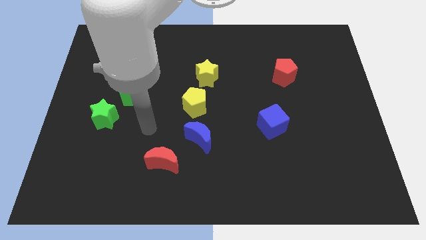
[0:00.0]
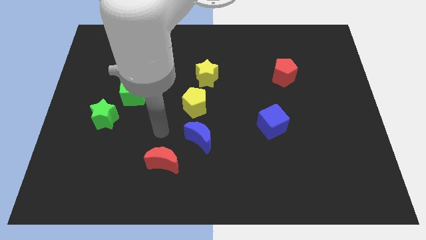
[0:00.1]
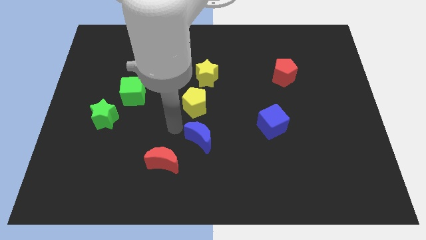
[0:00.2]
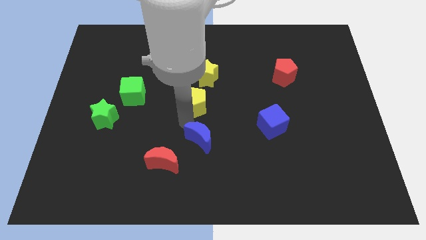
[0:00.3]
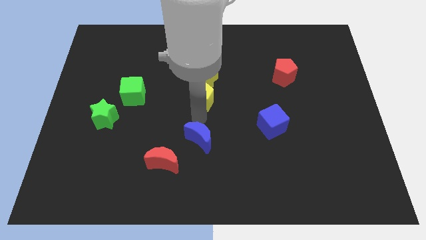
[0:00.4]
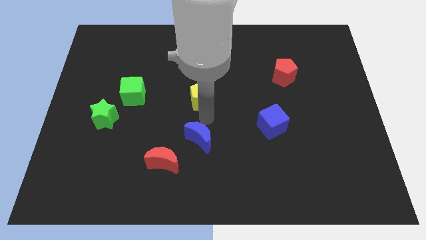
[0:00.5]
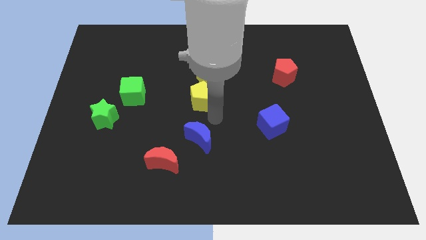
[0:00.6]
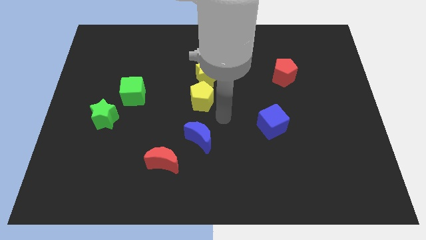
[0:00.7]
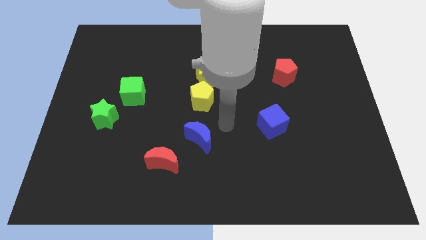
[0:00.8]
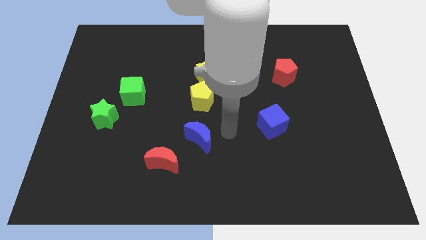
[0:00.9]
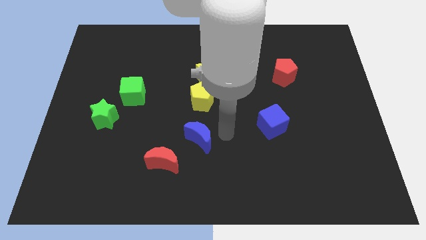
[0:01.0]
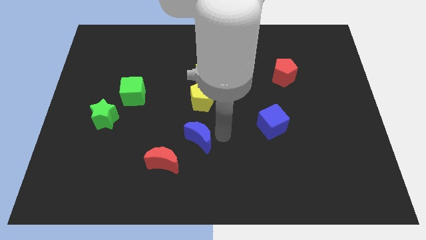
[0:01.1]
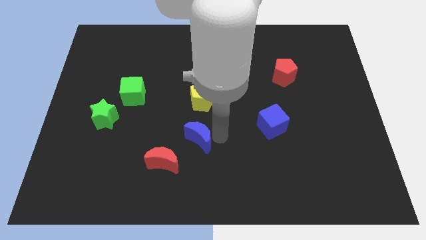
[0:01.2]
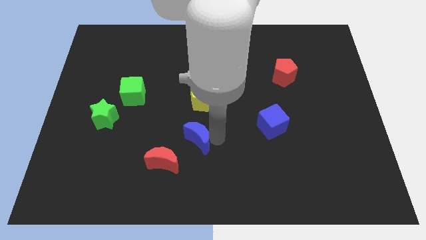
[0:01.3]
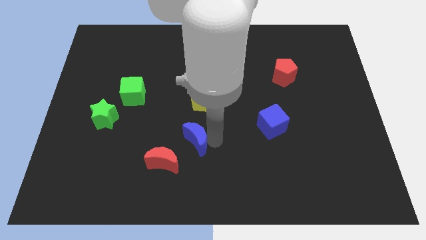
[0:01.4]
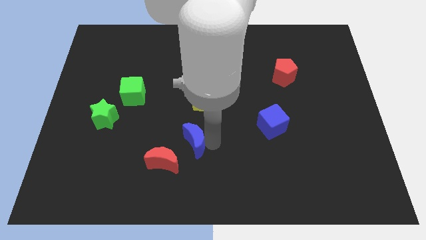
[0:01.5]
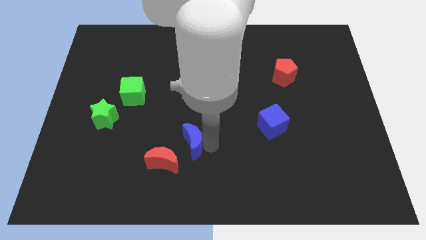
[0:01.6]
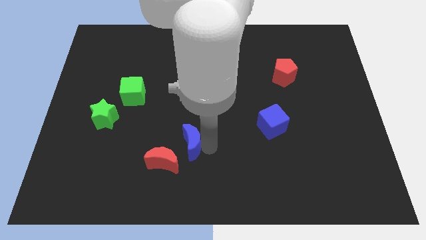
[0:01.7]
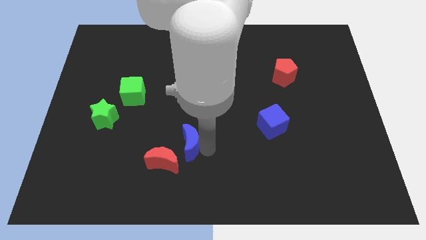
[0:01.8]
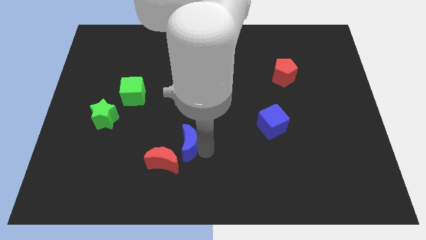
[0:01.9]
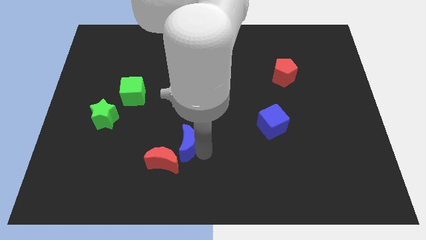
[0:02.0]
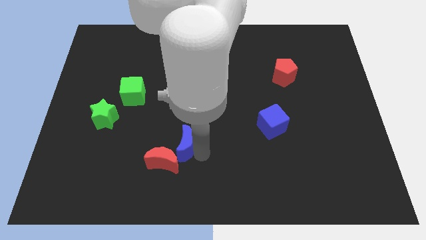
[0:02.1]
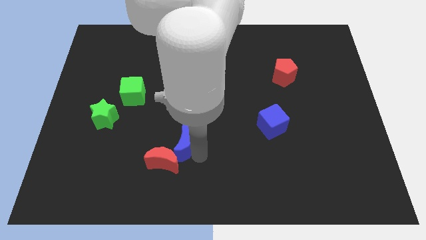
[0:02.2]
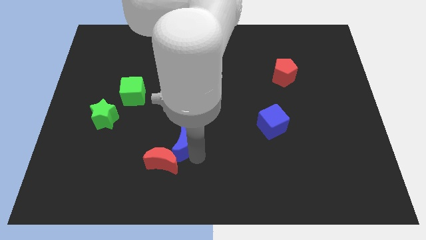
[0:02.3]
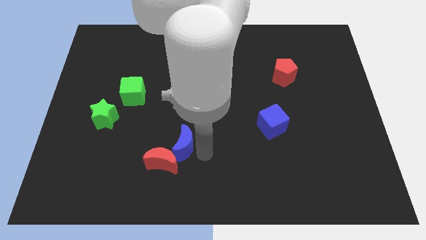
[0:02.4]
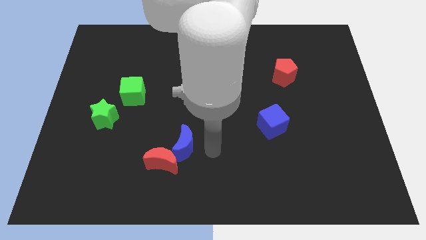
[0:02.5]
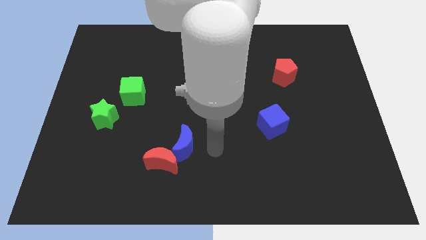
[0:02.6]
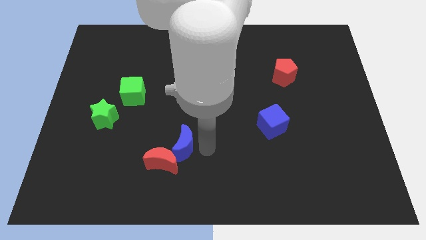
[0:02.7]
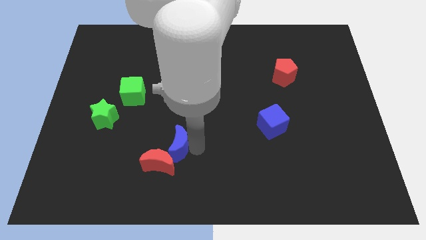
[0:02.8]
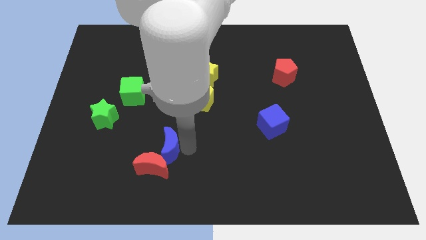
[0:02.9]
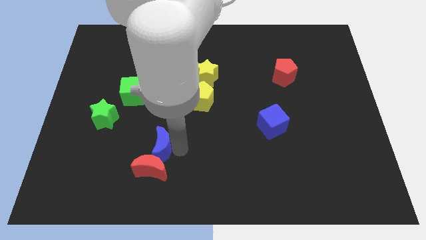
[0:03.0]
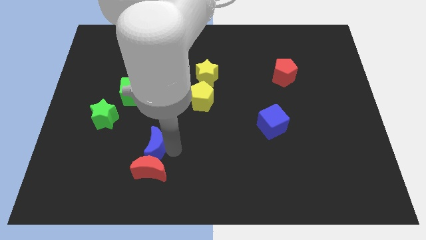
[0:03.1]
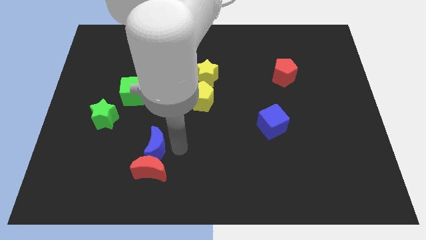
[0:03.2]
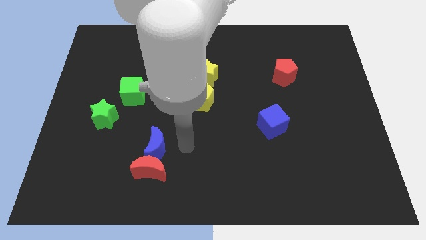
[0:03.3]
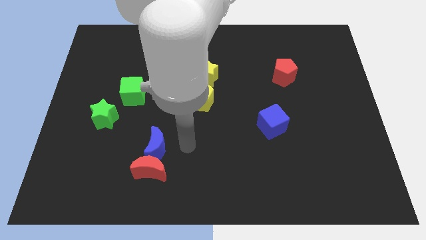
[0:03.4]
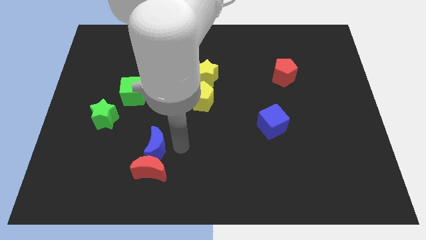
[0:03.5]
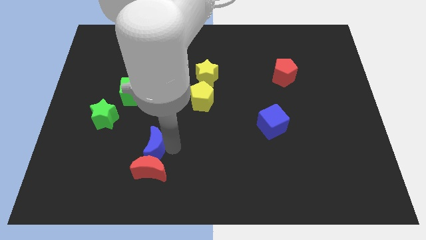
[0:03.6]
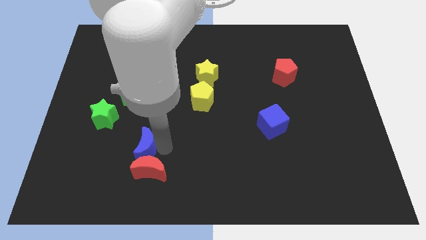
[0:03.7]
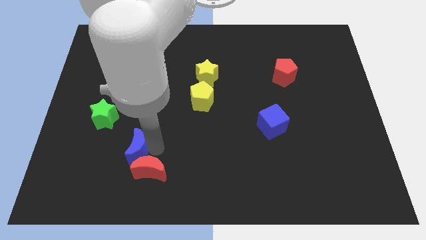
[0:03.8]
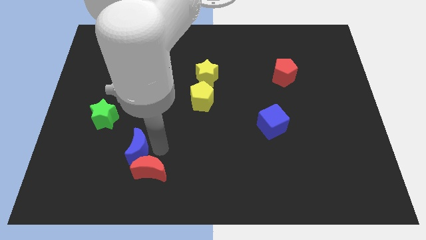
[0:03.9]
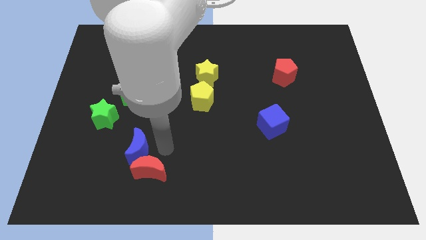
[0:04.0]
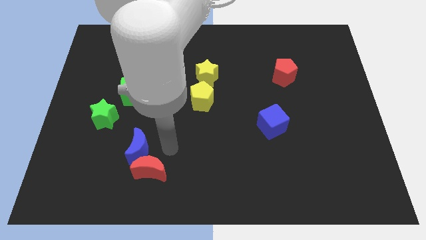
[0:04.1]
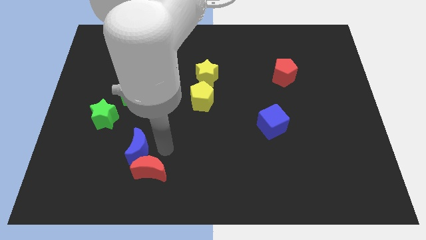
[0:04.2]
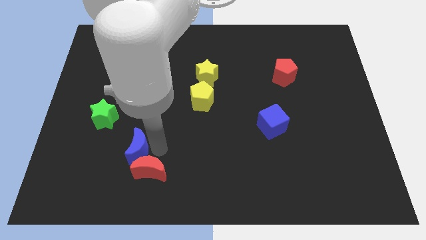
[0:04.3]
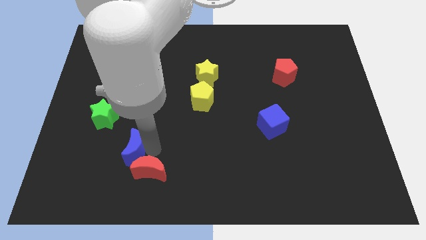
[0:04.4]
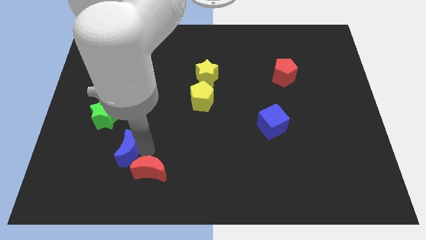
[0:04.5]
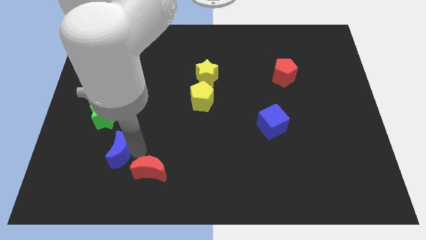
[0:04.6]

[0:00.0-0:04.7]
put the blue moon to the bottom of the green star

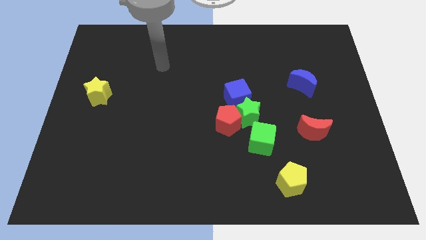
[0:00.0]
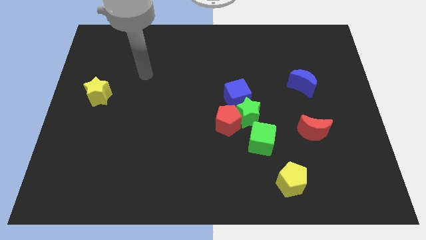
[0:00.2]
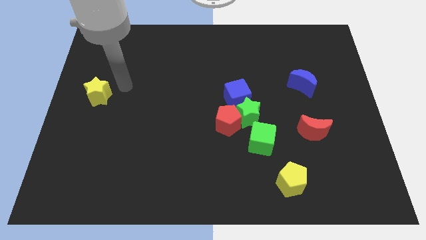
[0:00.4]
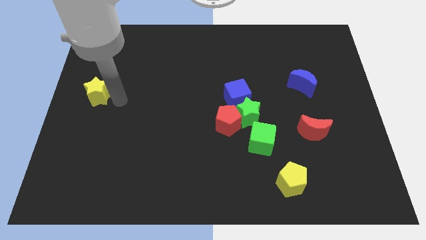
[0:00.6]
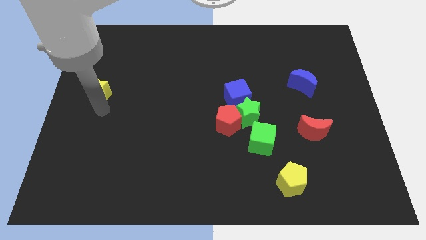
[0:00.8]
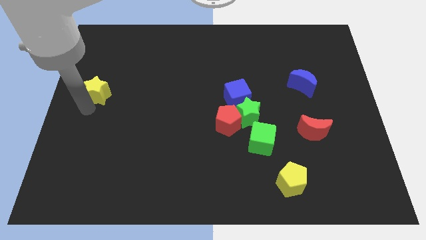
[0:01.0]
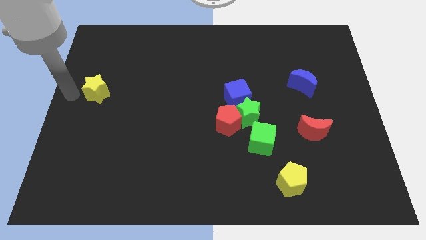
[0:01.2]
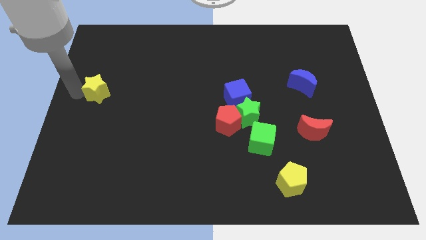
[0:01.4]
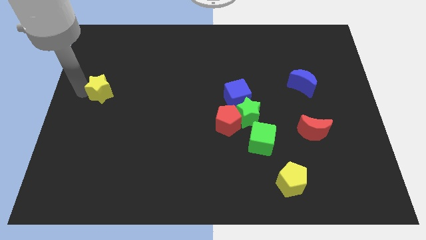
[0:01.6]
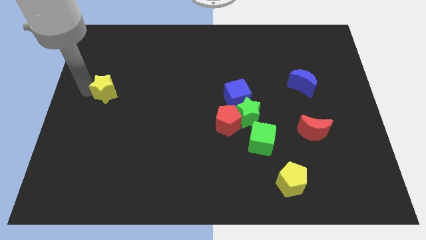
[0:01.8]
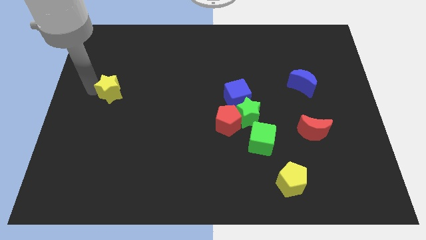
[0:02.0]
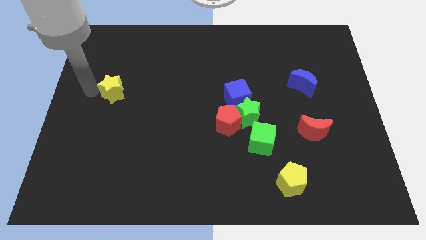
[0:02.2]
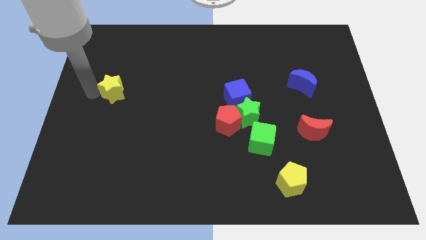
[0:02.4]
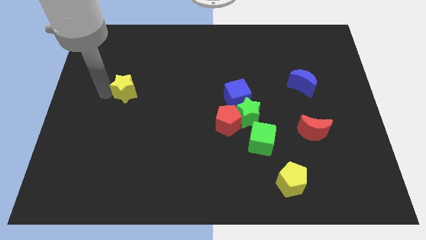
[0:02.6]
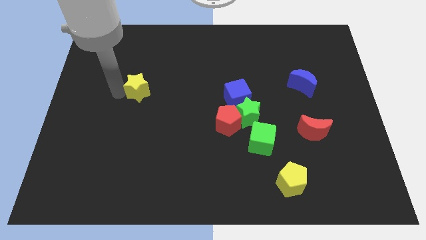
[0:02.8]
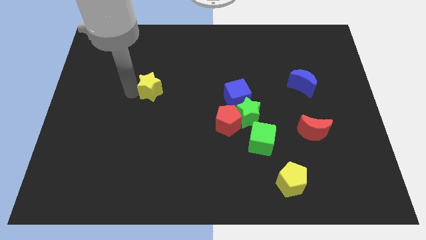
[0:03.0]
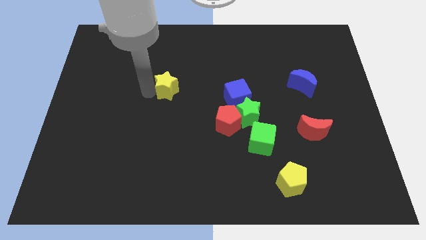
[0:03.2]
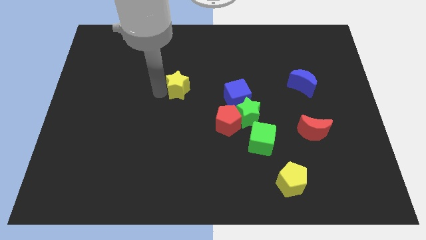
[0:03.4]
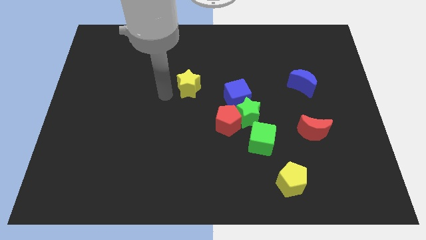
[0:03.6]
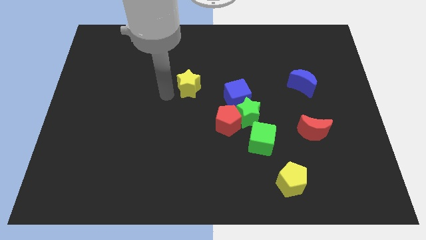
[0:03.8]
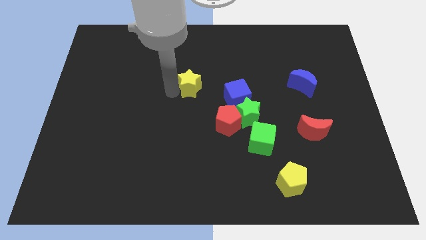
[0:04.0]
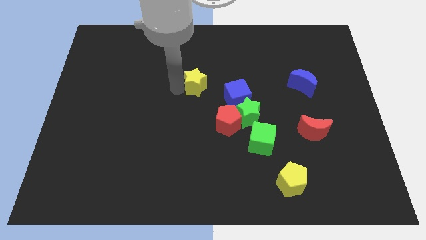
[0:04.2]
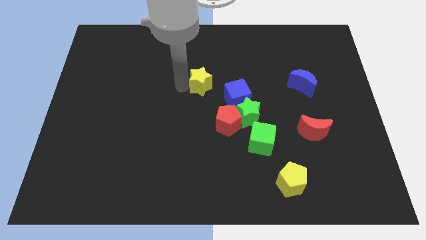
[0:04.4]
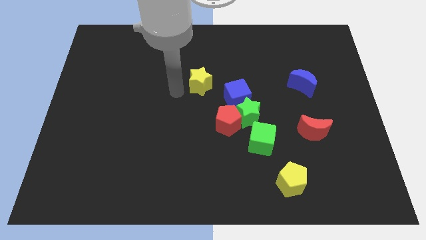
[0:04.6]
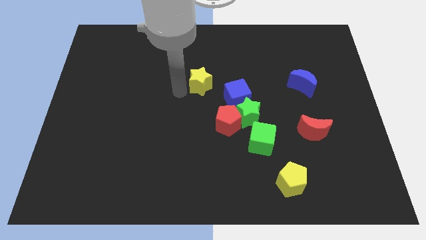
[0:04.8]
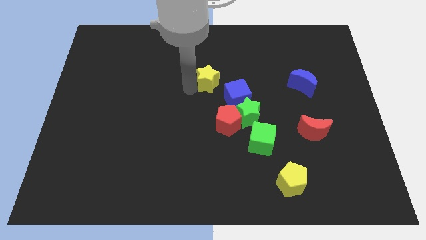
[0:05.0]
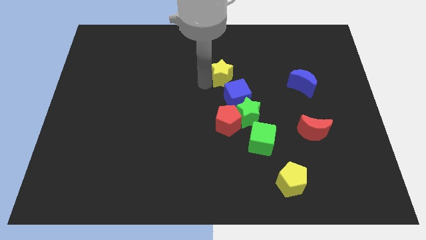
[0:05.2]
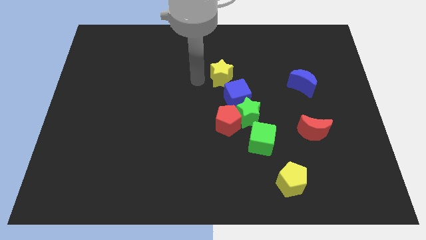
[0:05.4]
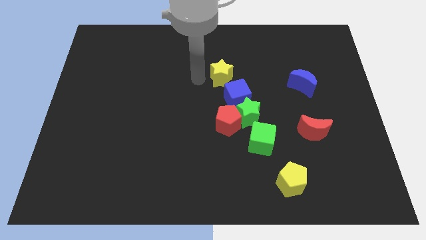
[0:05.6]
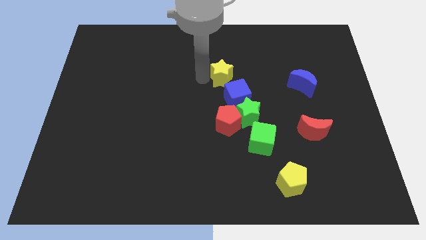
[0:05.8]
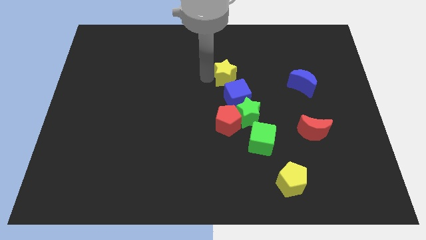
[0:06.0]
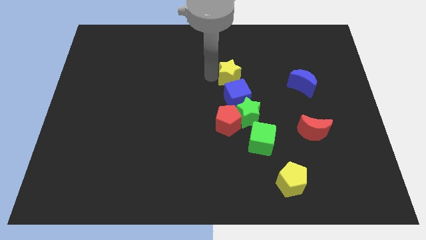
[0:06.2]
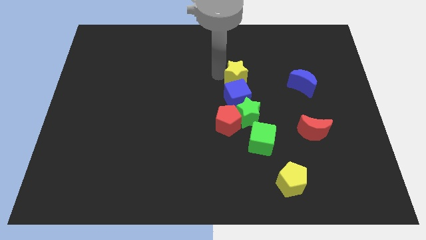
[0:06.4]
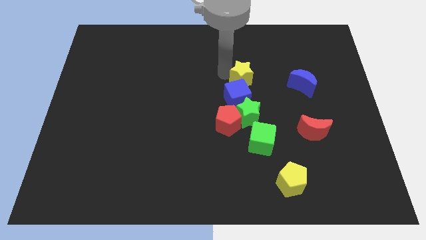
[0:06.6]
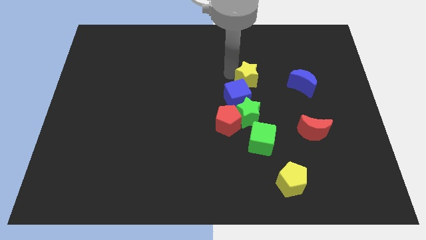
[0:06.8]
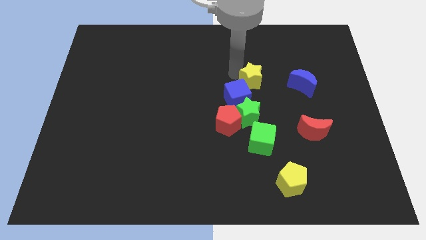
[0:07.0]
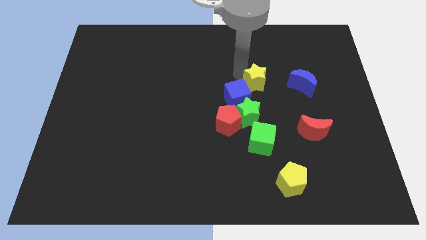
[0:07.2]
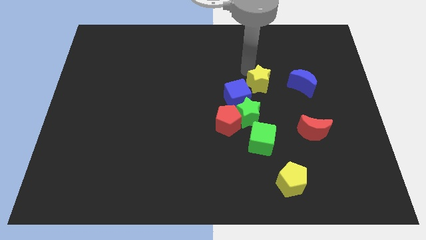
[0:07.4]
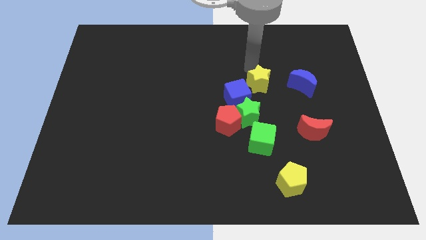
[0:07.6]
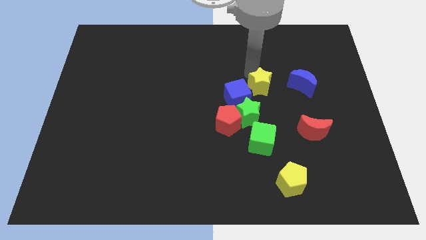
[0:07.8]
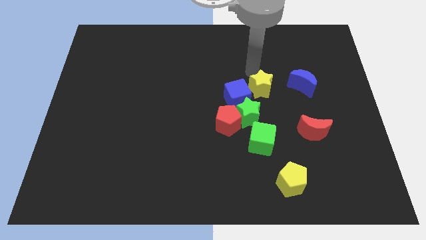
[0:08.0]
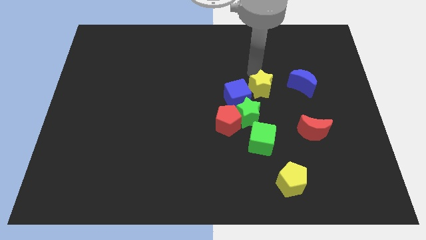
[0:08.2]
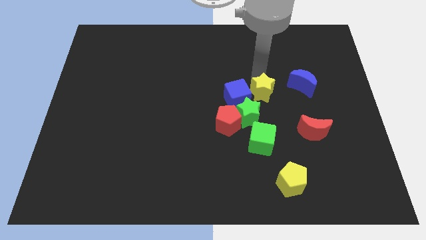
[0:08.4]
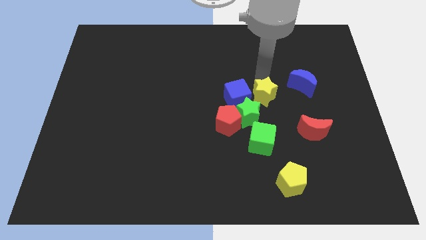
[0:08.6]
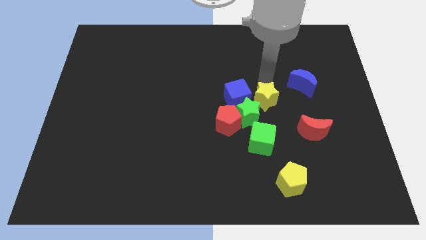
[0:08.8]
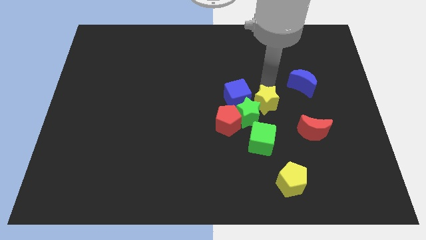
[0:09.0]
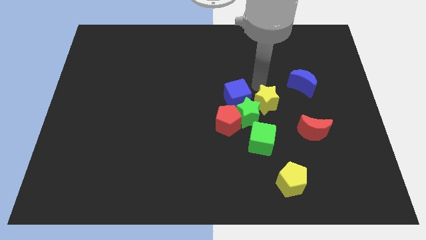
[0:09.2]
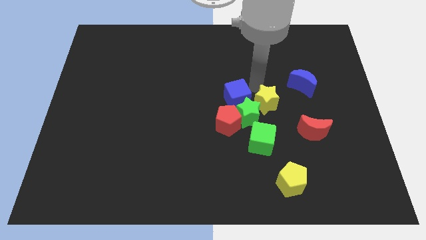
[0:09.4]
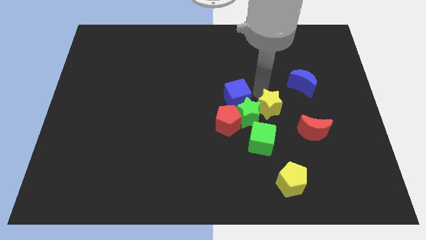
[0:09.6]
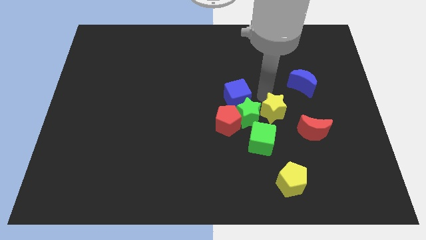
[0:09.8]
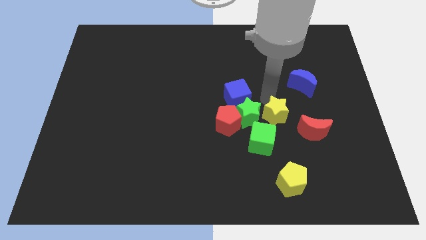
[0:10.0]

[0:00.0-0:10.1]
slide the yellow star to the left of the red moon
